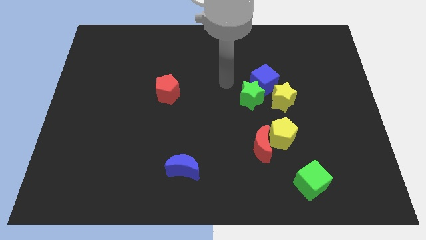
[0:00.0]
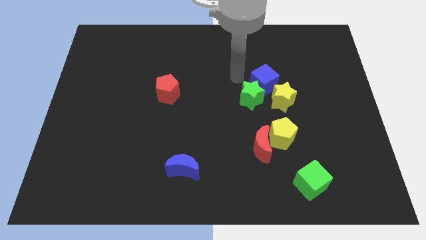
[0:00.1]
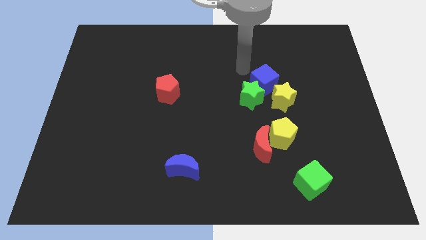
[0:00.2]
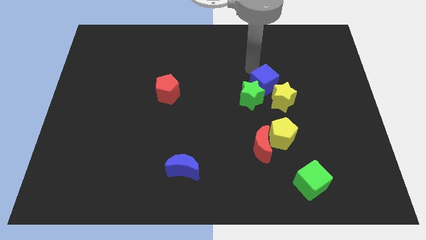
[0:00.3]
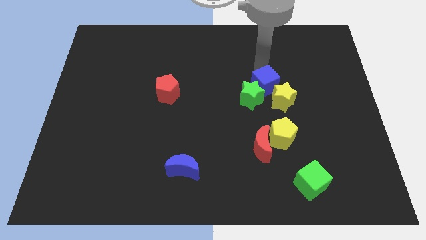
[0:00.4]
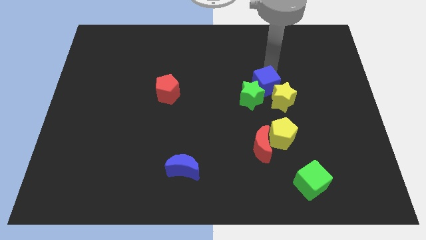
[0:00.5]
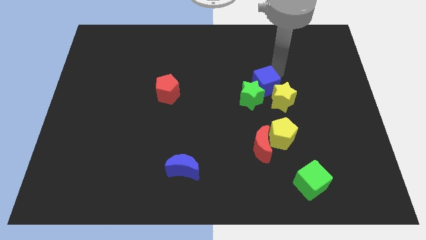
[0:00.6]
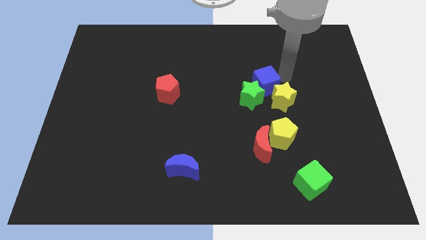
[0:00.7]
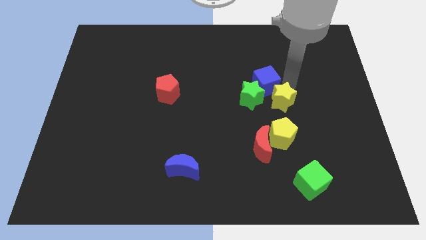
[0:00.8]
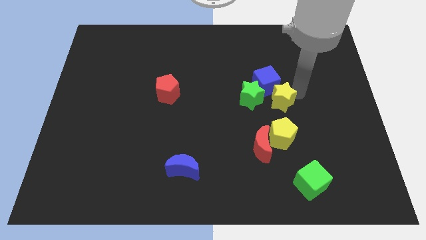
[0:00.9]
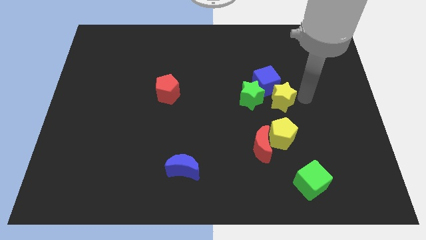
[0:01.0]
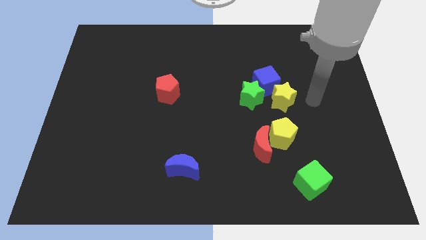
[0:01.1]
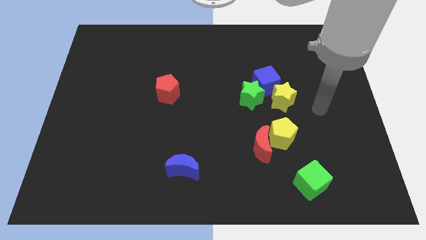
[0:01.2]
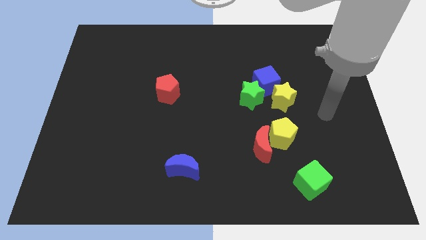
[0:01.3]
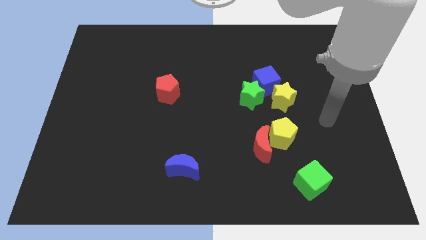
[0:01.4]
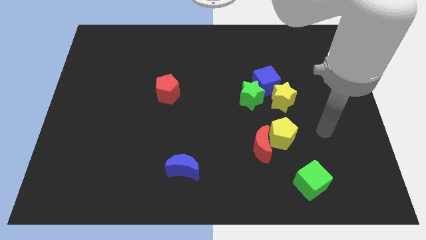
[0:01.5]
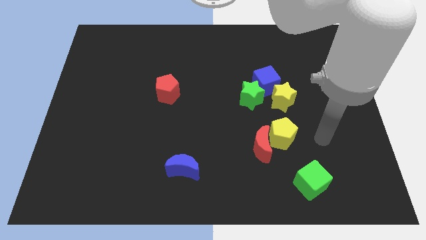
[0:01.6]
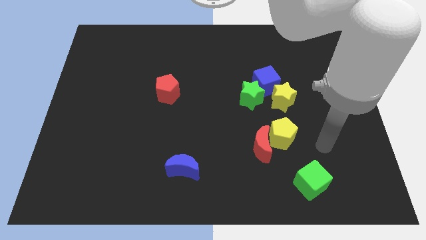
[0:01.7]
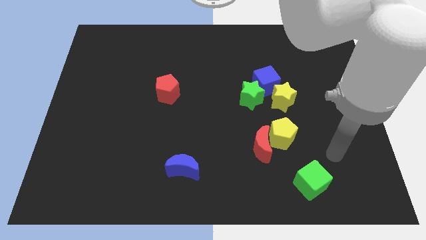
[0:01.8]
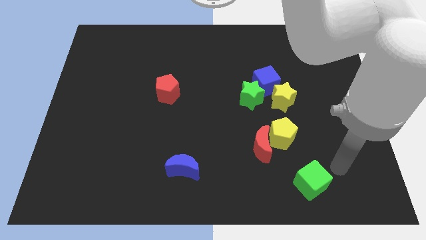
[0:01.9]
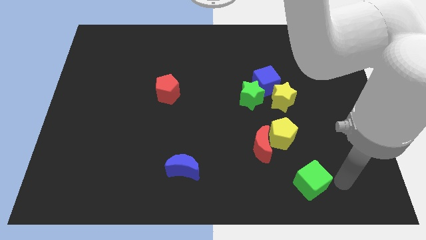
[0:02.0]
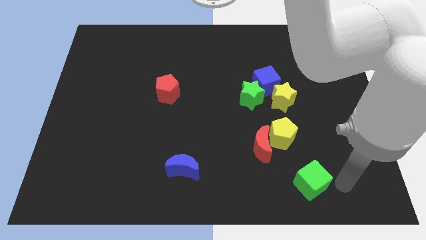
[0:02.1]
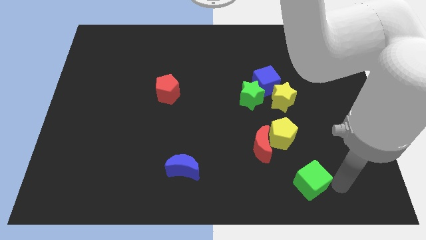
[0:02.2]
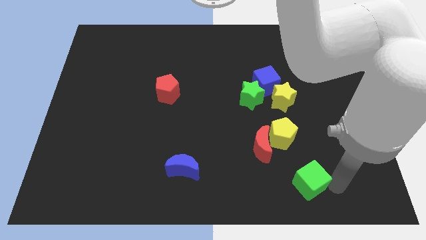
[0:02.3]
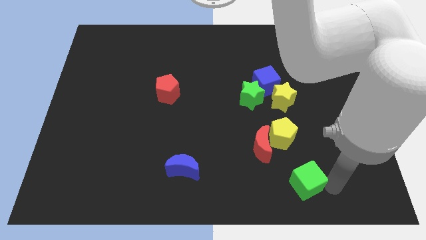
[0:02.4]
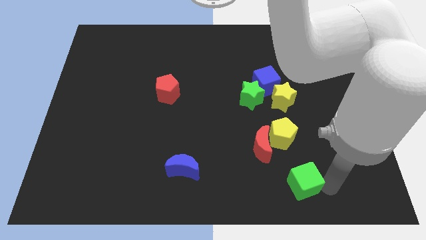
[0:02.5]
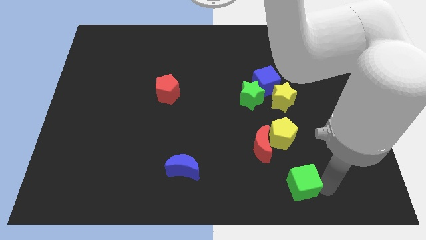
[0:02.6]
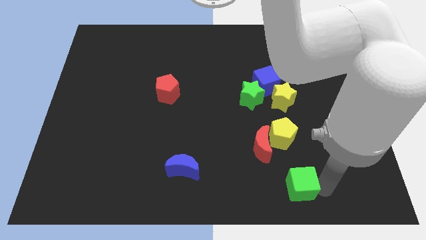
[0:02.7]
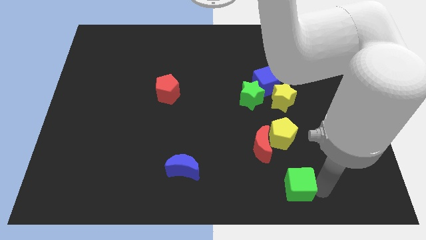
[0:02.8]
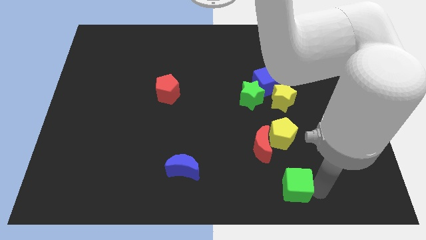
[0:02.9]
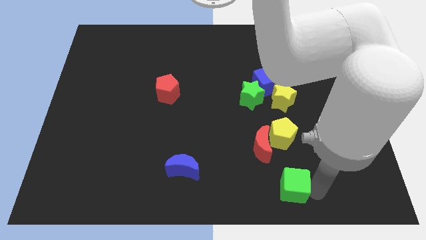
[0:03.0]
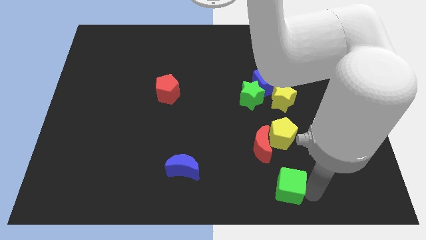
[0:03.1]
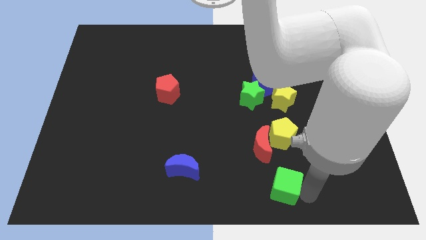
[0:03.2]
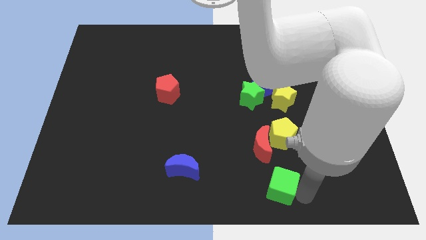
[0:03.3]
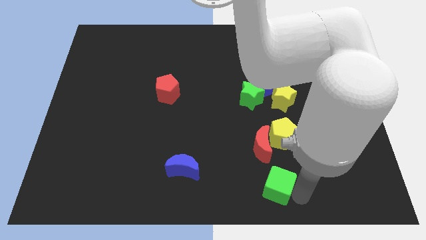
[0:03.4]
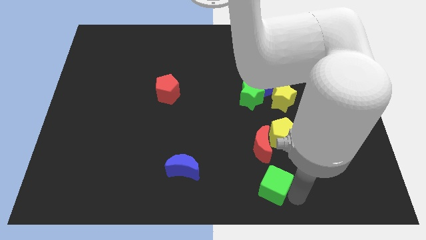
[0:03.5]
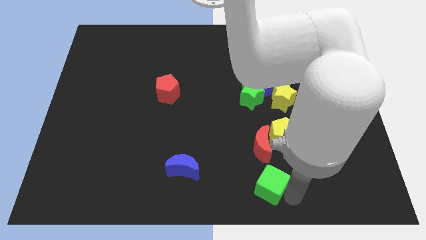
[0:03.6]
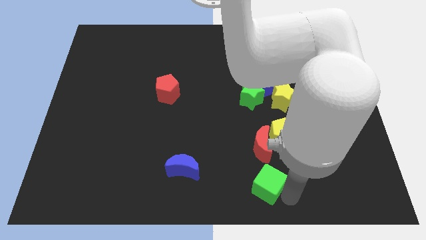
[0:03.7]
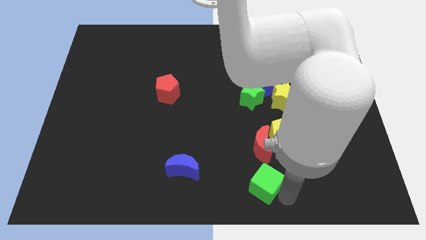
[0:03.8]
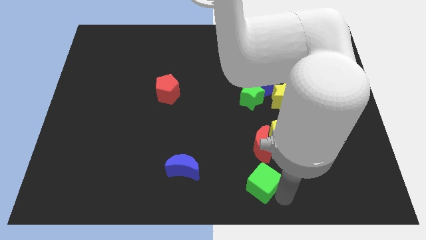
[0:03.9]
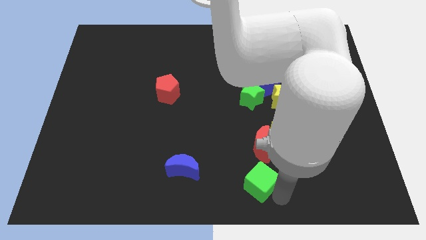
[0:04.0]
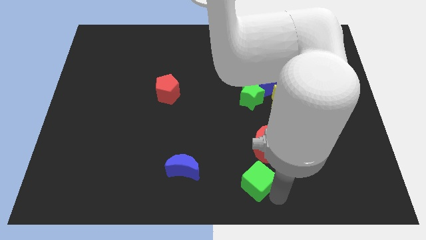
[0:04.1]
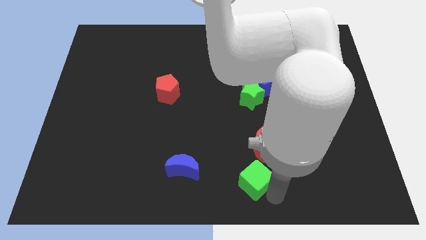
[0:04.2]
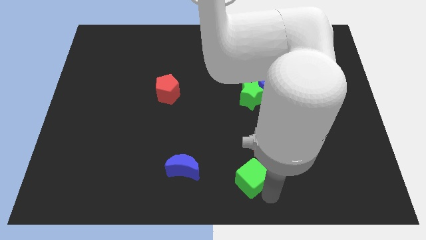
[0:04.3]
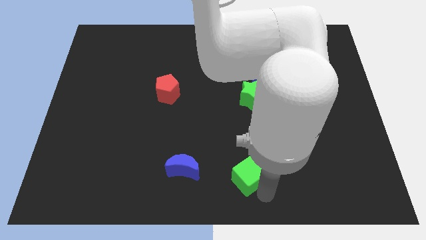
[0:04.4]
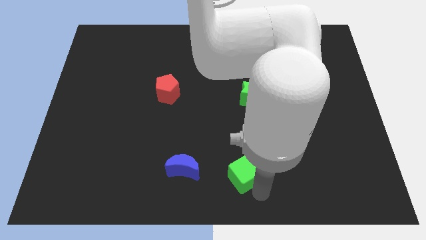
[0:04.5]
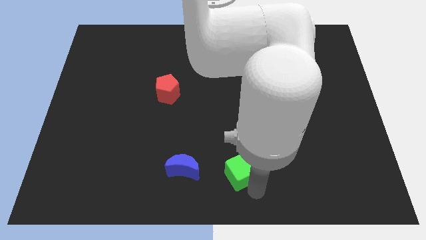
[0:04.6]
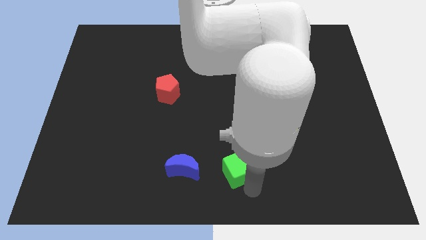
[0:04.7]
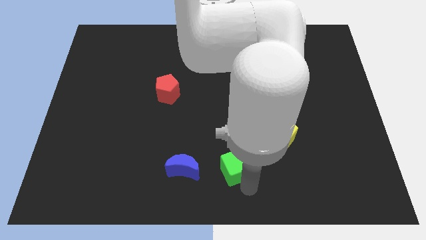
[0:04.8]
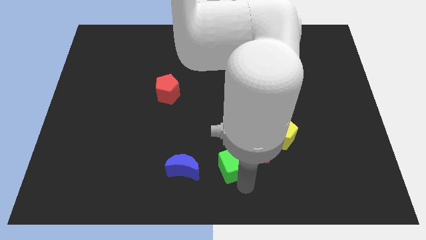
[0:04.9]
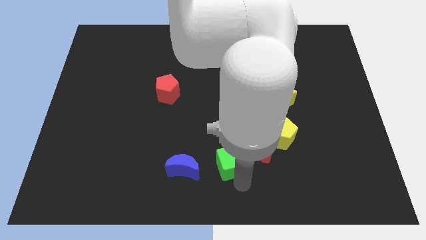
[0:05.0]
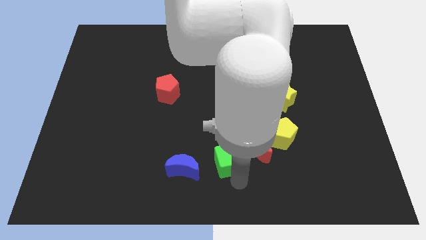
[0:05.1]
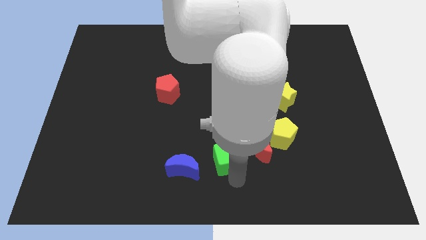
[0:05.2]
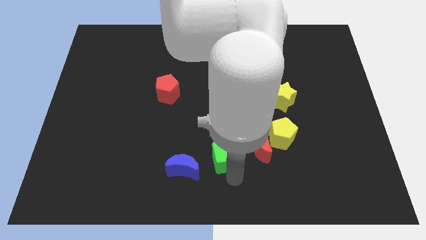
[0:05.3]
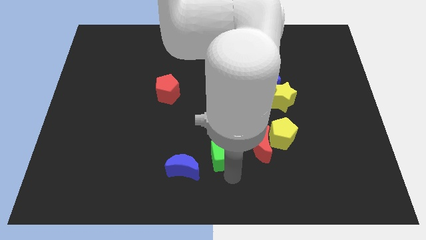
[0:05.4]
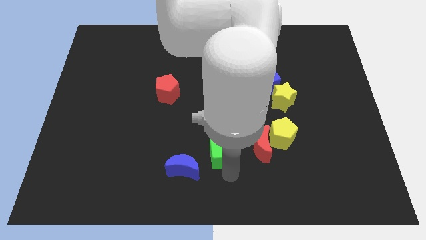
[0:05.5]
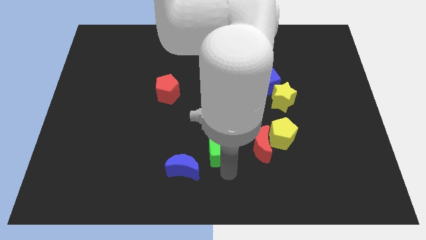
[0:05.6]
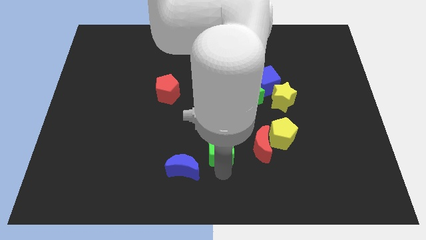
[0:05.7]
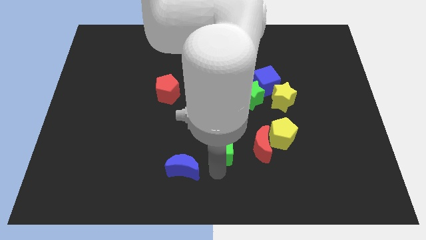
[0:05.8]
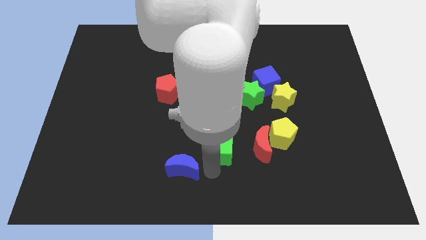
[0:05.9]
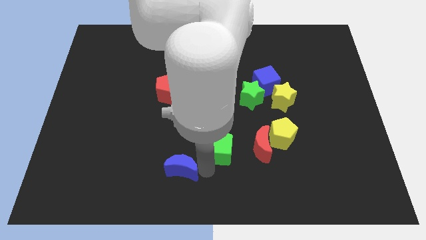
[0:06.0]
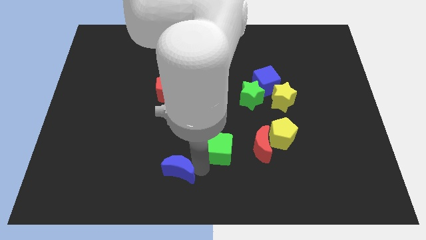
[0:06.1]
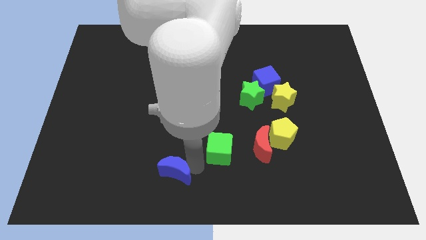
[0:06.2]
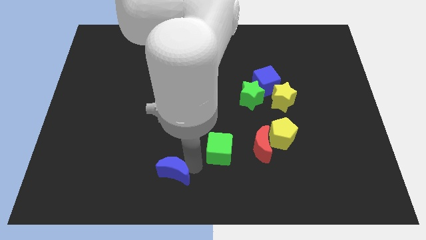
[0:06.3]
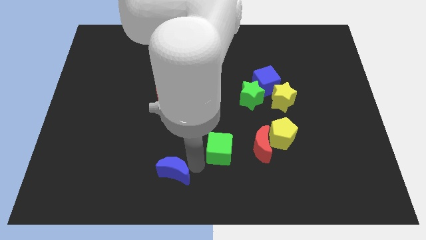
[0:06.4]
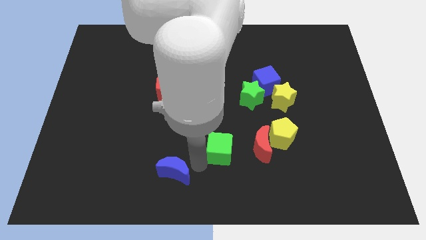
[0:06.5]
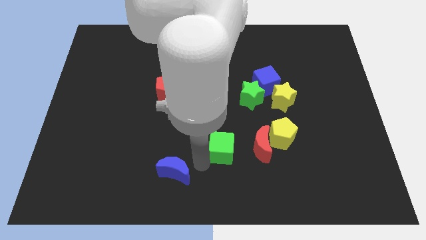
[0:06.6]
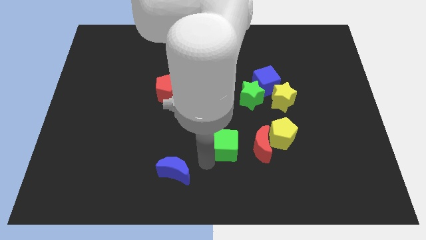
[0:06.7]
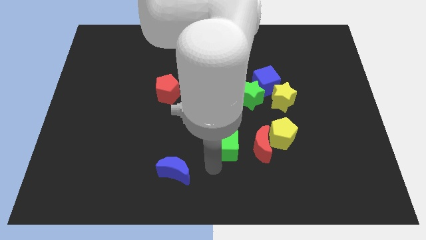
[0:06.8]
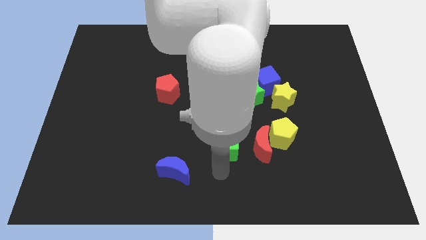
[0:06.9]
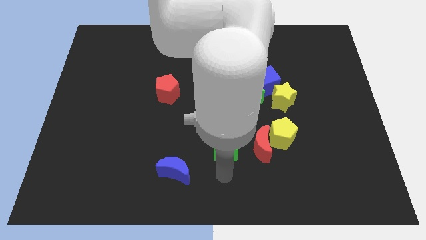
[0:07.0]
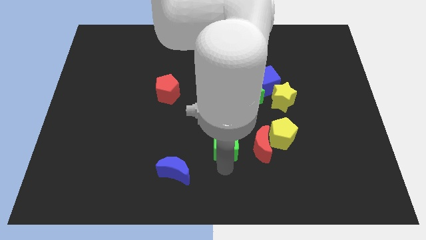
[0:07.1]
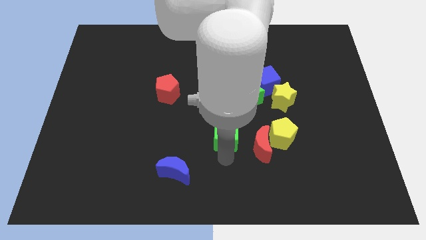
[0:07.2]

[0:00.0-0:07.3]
push the green cube to the center of the board
